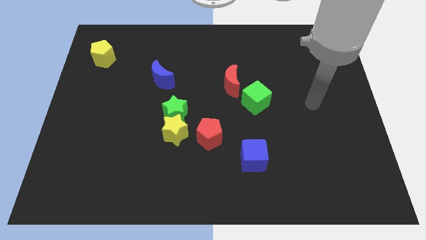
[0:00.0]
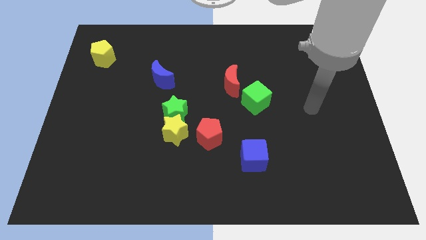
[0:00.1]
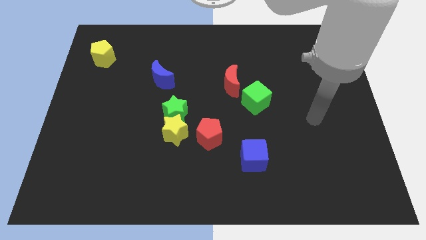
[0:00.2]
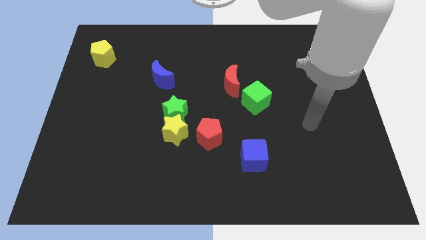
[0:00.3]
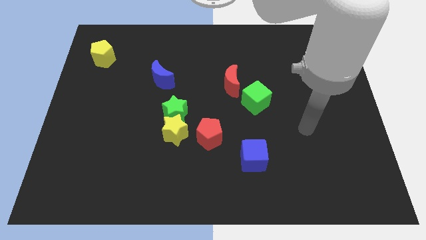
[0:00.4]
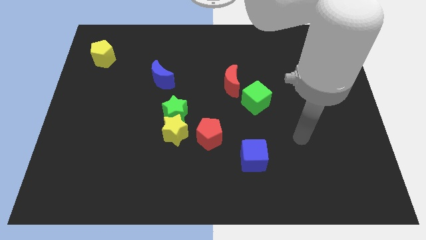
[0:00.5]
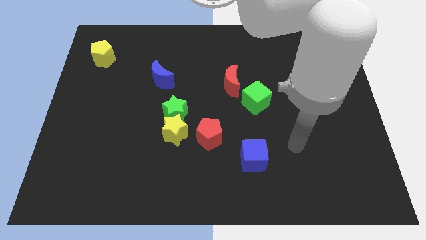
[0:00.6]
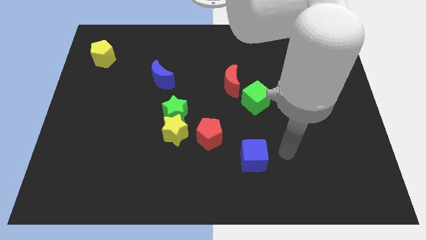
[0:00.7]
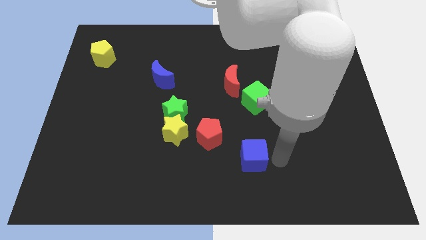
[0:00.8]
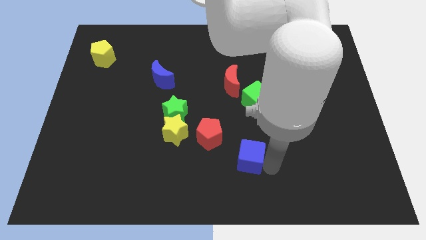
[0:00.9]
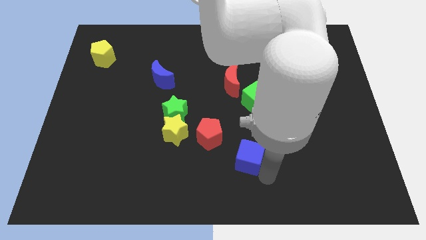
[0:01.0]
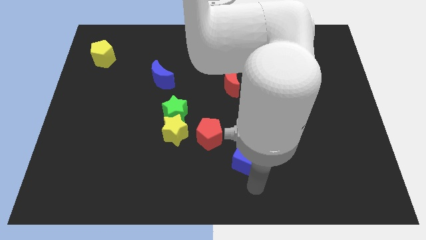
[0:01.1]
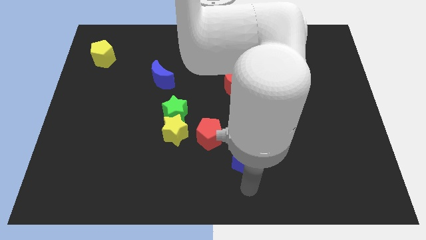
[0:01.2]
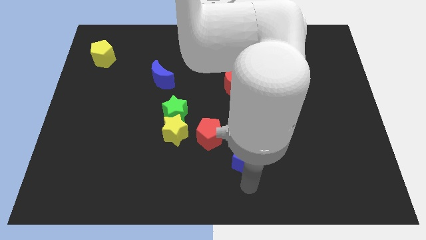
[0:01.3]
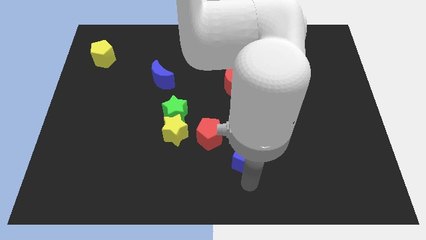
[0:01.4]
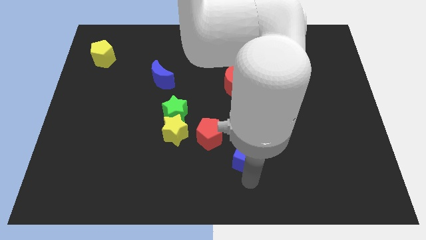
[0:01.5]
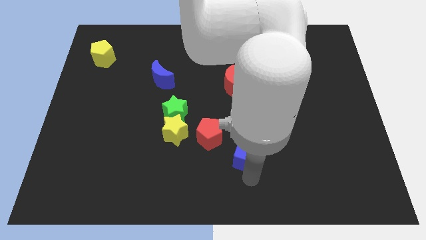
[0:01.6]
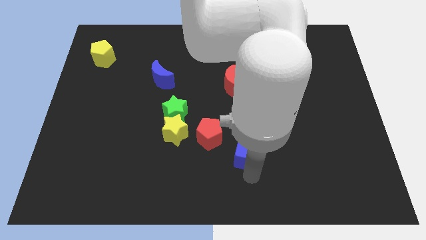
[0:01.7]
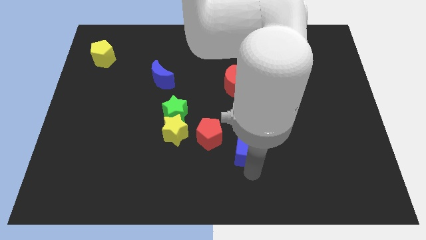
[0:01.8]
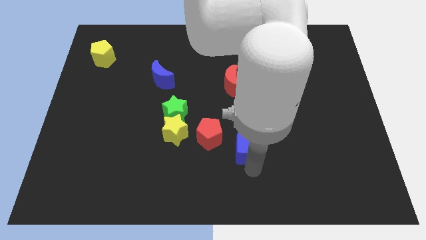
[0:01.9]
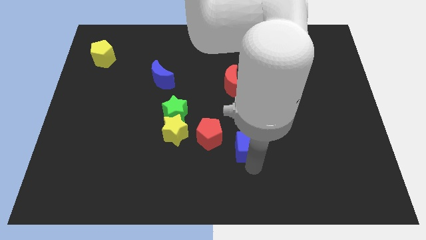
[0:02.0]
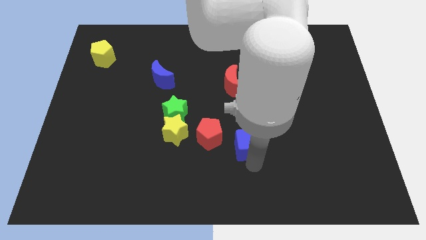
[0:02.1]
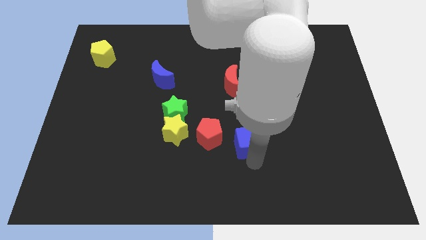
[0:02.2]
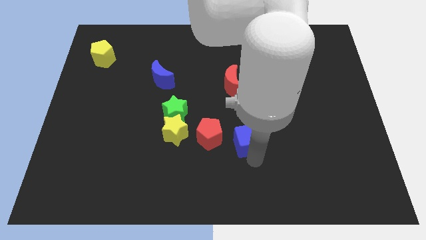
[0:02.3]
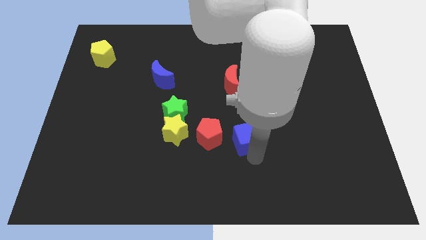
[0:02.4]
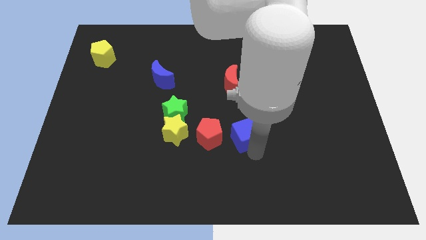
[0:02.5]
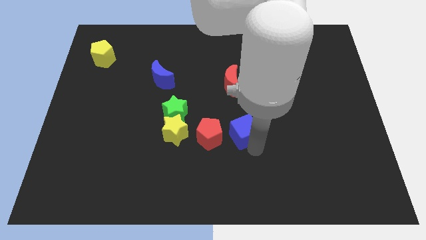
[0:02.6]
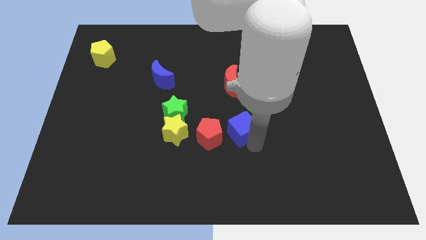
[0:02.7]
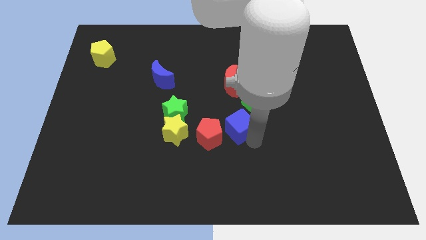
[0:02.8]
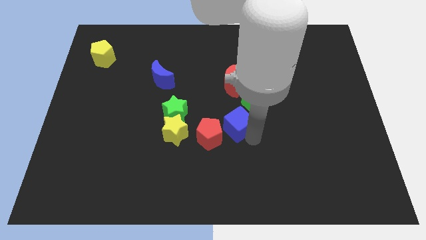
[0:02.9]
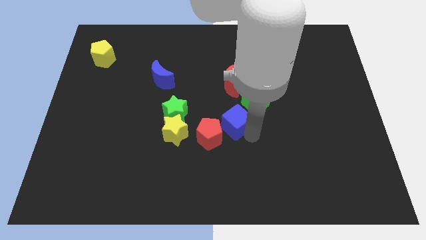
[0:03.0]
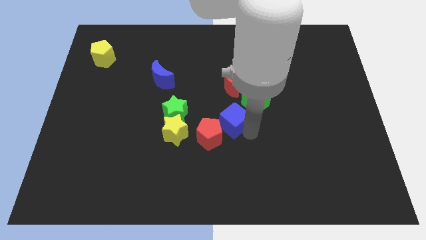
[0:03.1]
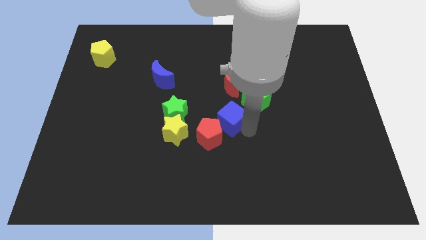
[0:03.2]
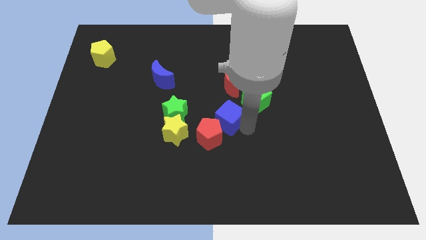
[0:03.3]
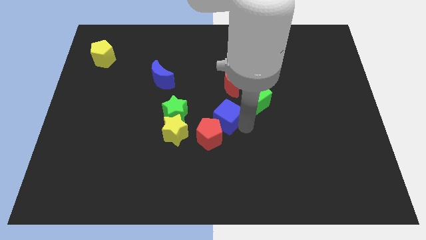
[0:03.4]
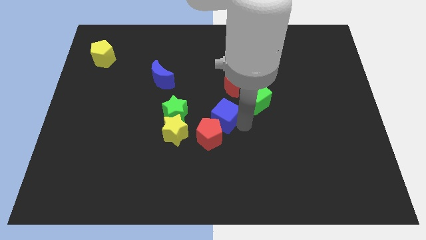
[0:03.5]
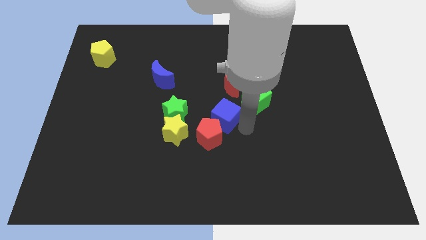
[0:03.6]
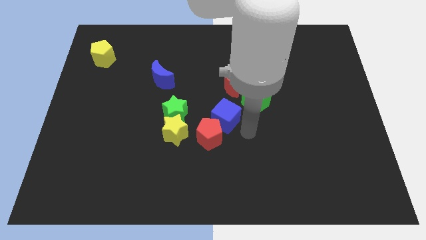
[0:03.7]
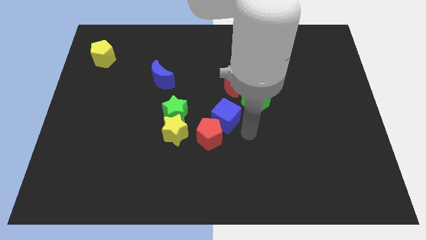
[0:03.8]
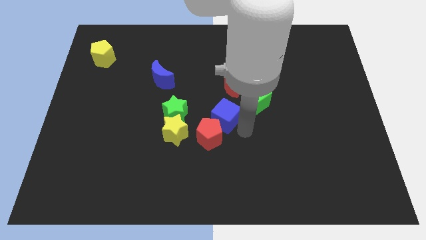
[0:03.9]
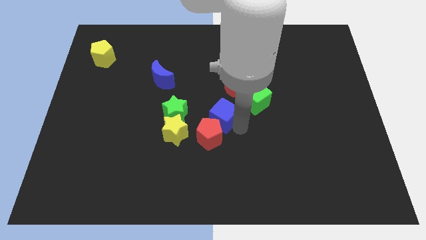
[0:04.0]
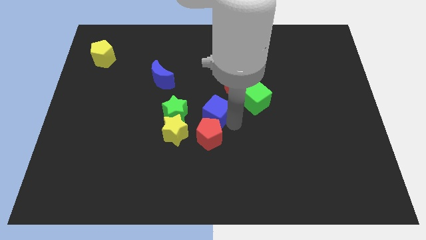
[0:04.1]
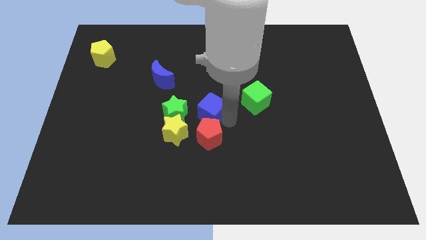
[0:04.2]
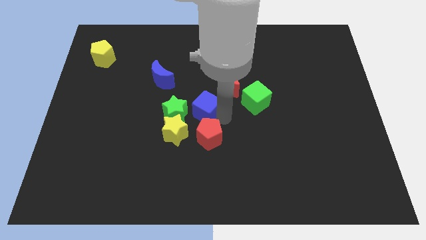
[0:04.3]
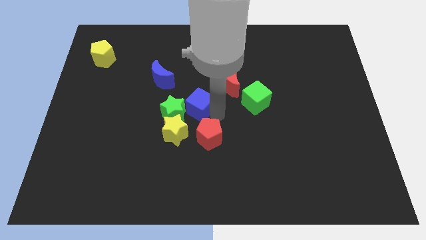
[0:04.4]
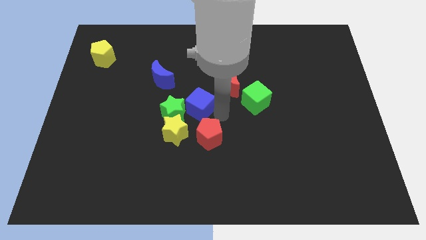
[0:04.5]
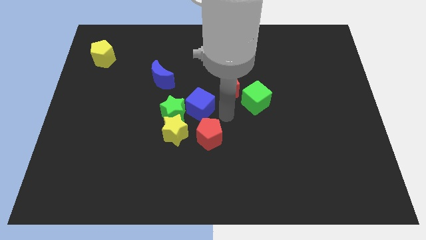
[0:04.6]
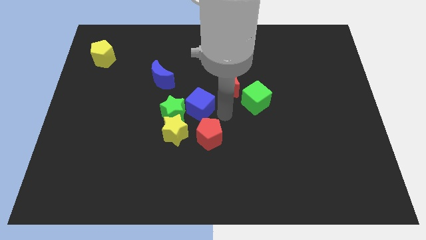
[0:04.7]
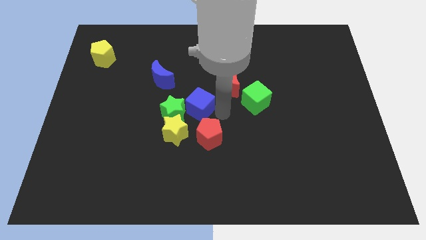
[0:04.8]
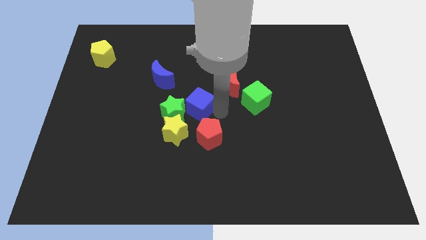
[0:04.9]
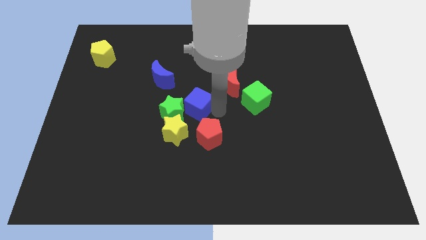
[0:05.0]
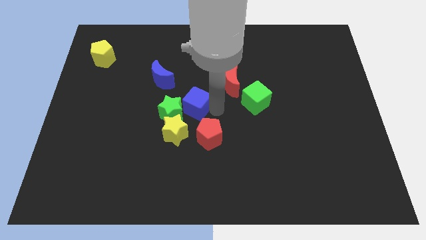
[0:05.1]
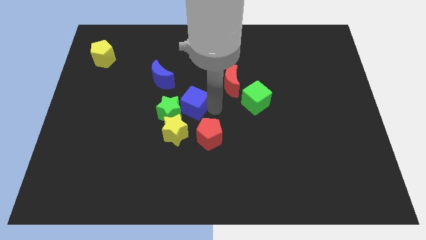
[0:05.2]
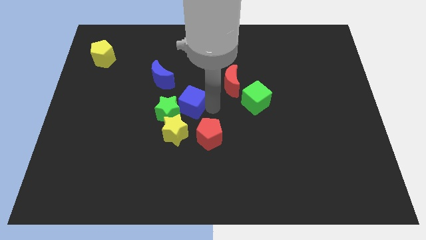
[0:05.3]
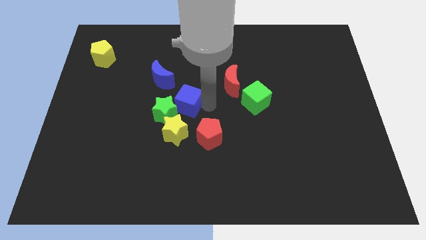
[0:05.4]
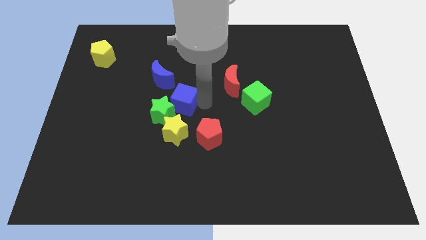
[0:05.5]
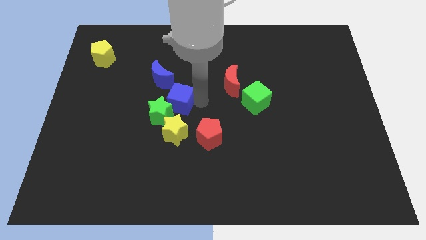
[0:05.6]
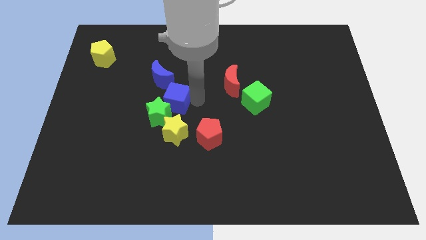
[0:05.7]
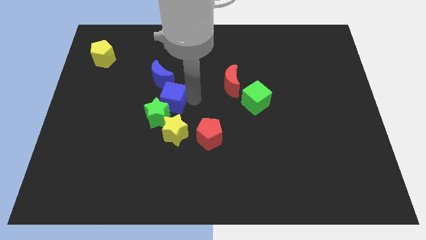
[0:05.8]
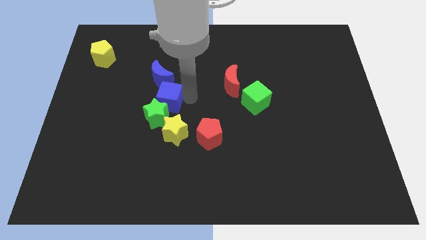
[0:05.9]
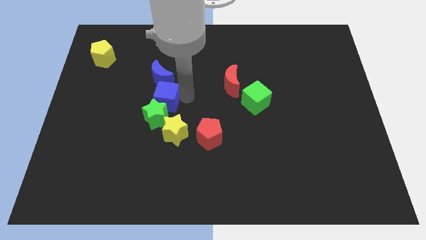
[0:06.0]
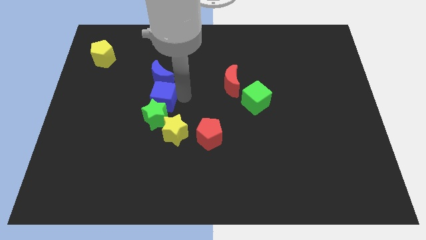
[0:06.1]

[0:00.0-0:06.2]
move the blue cube to the top left of the green star
